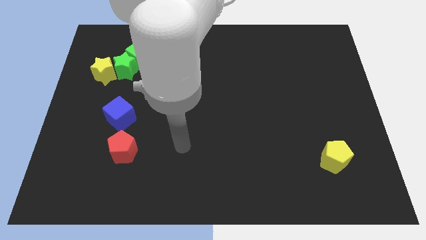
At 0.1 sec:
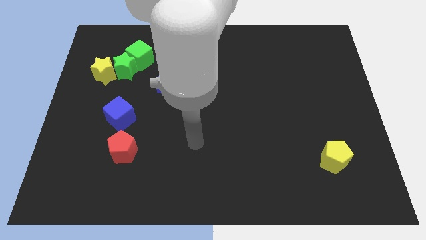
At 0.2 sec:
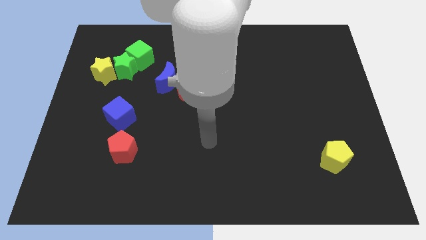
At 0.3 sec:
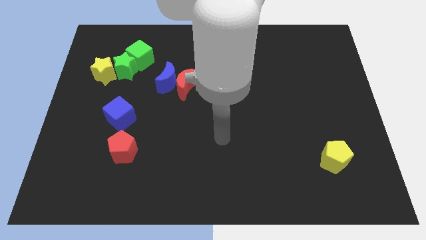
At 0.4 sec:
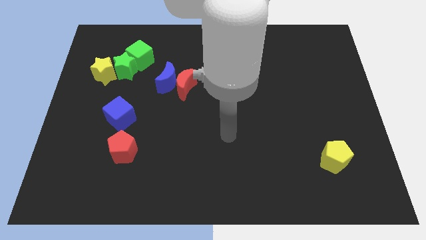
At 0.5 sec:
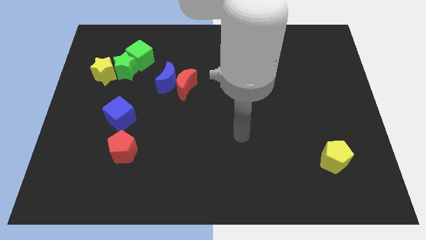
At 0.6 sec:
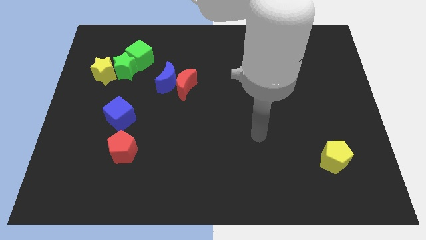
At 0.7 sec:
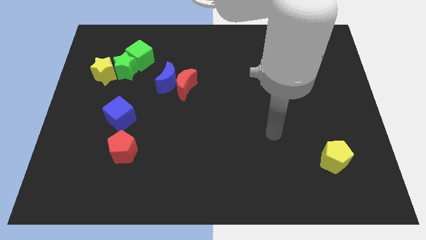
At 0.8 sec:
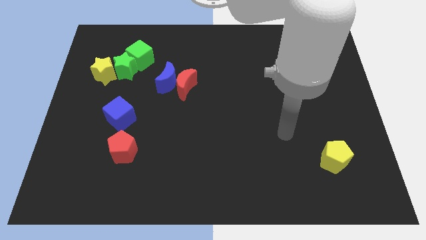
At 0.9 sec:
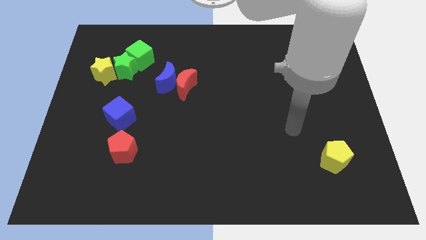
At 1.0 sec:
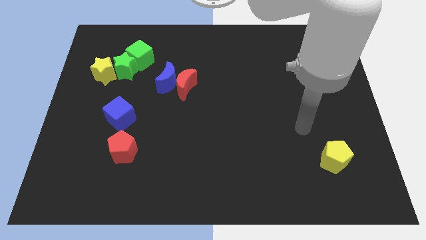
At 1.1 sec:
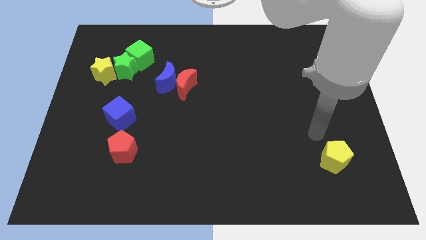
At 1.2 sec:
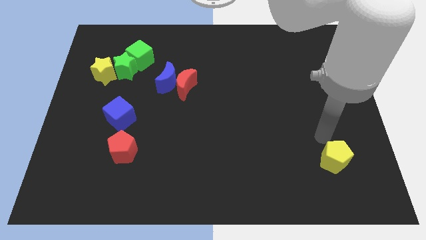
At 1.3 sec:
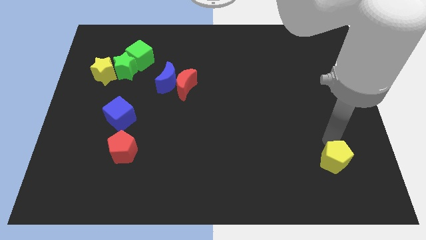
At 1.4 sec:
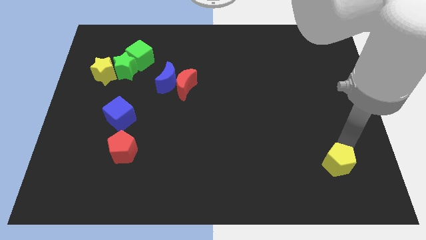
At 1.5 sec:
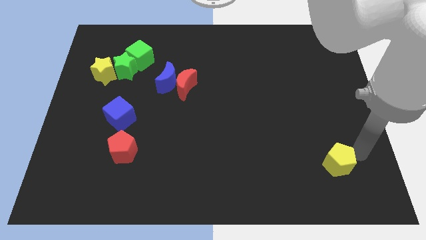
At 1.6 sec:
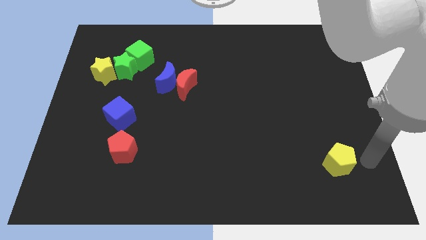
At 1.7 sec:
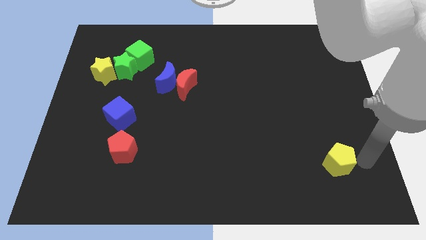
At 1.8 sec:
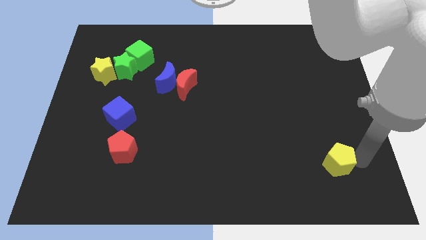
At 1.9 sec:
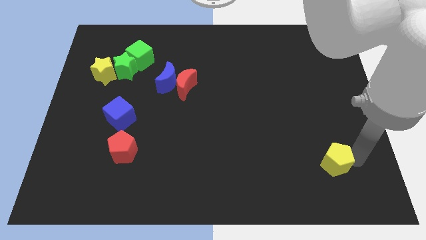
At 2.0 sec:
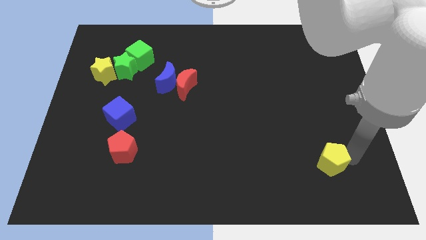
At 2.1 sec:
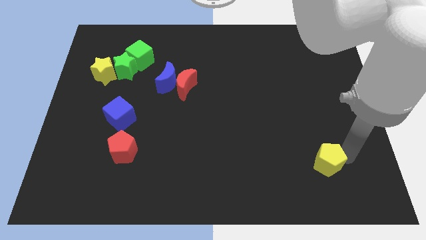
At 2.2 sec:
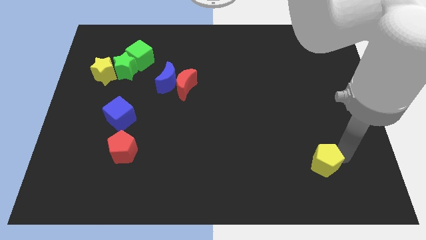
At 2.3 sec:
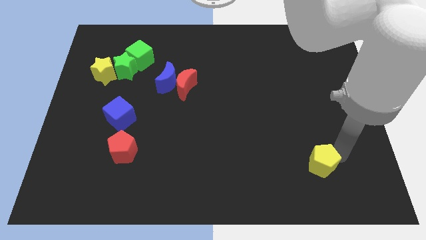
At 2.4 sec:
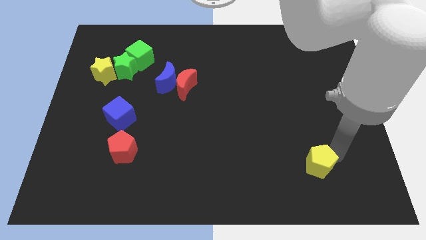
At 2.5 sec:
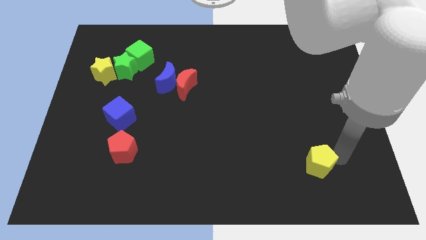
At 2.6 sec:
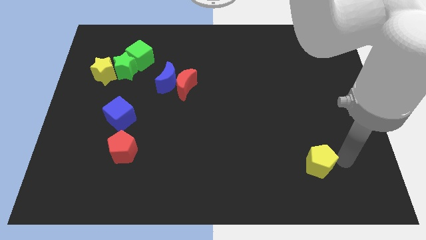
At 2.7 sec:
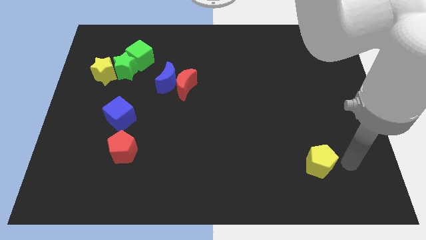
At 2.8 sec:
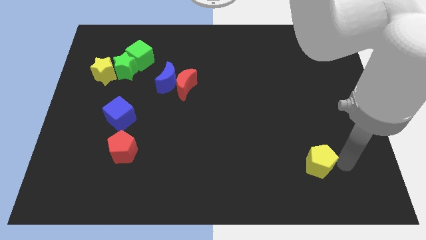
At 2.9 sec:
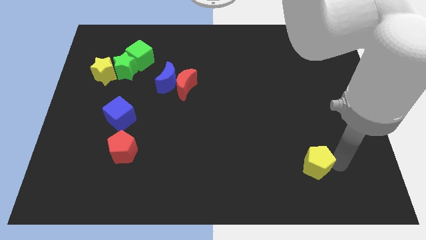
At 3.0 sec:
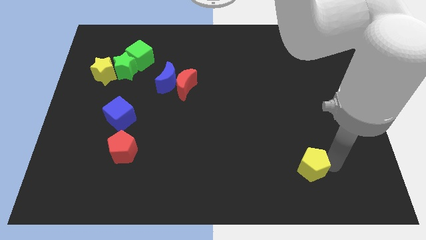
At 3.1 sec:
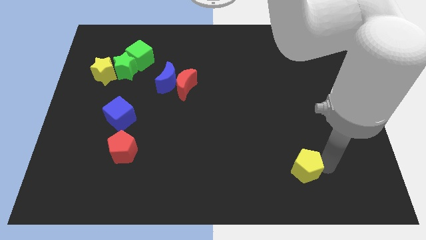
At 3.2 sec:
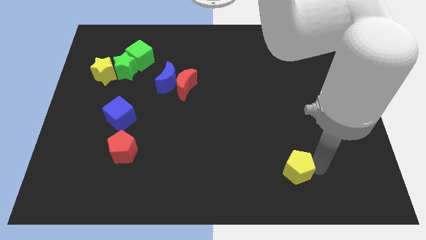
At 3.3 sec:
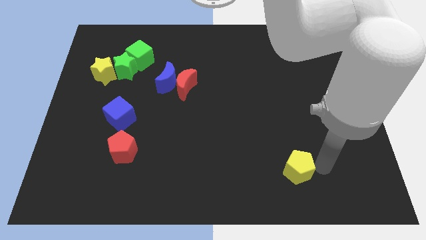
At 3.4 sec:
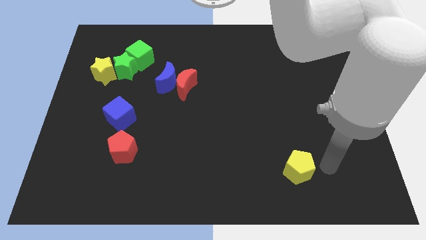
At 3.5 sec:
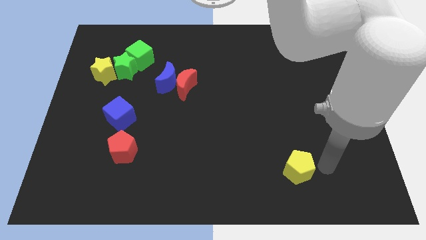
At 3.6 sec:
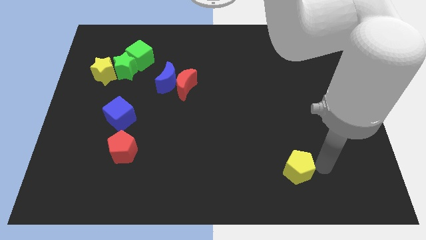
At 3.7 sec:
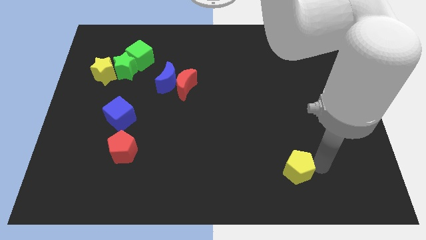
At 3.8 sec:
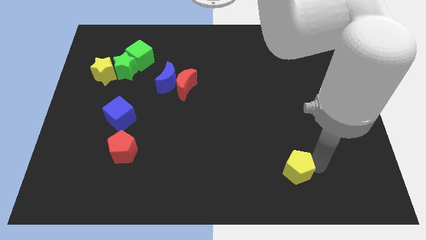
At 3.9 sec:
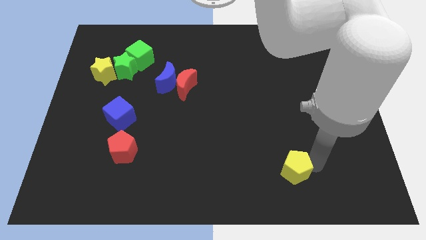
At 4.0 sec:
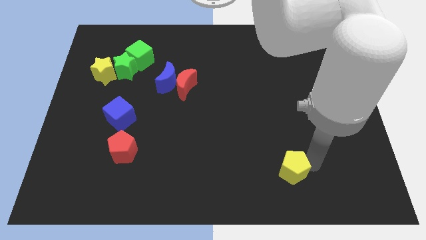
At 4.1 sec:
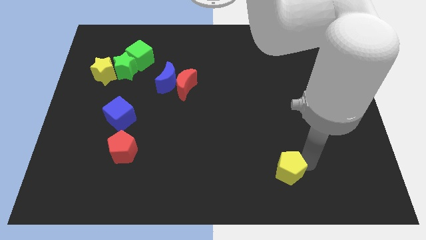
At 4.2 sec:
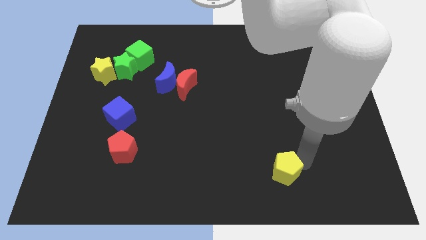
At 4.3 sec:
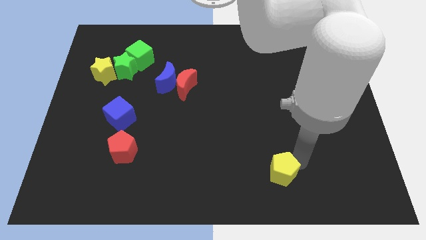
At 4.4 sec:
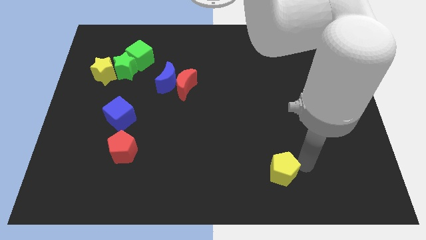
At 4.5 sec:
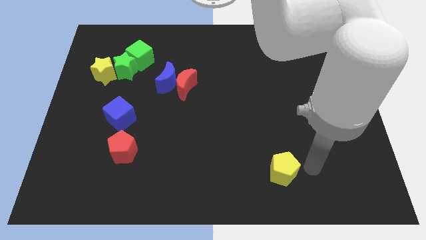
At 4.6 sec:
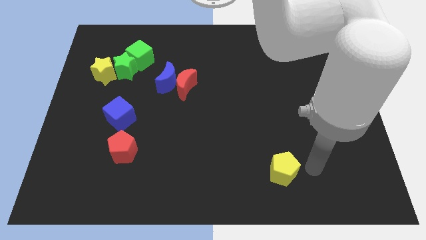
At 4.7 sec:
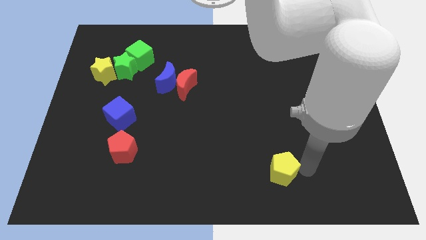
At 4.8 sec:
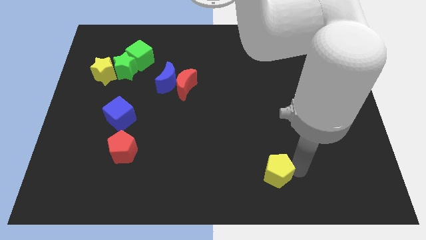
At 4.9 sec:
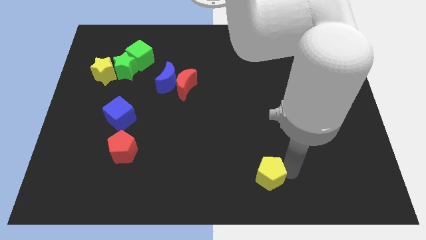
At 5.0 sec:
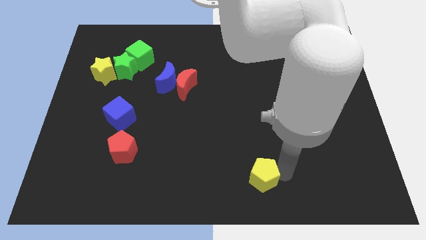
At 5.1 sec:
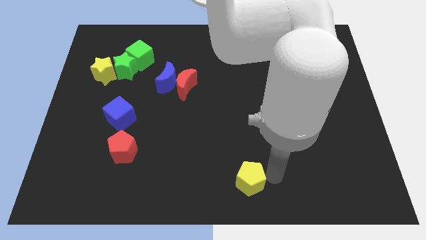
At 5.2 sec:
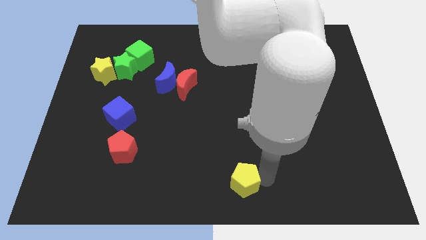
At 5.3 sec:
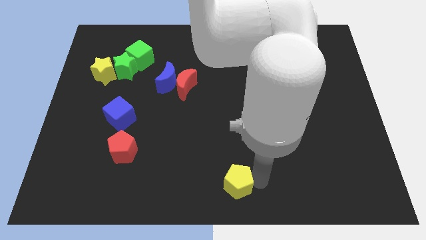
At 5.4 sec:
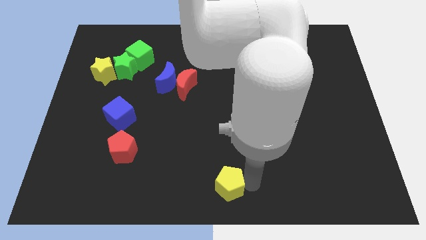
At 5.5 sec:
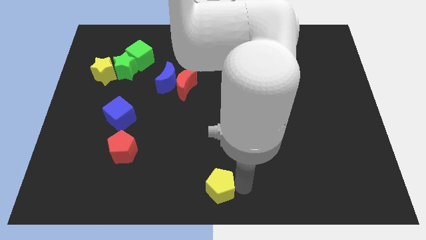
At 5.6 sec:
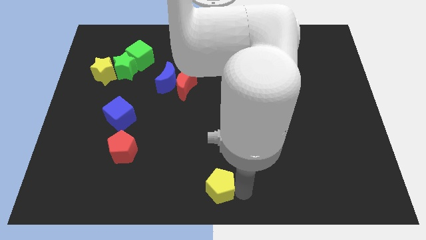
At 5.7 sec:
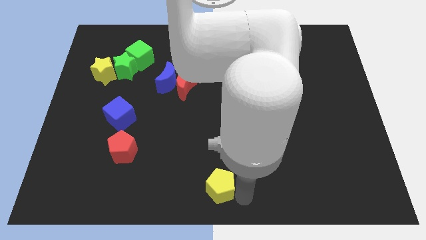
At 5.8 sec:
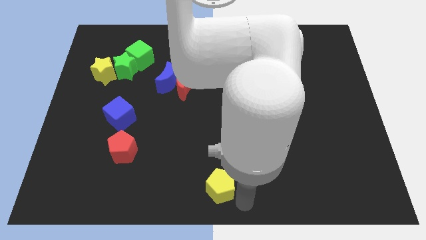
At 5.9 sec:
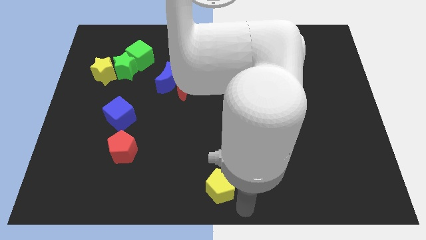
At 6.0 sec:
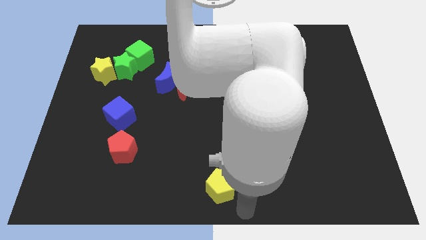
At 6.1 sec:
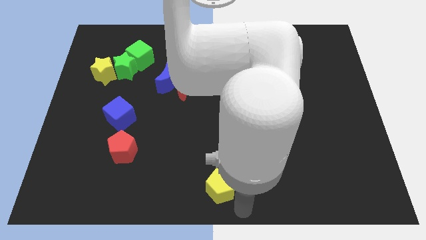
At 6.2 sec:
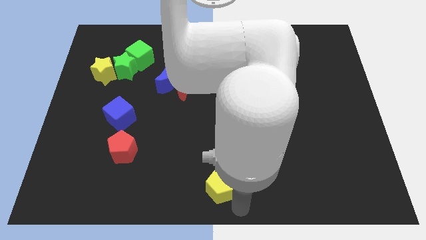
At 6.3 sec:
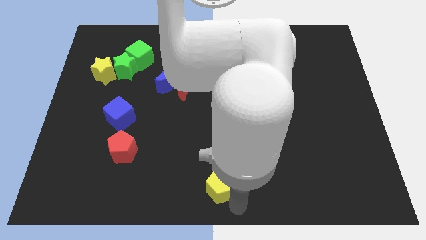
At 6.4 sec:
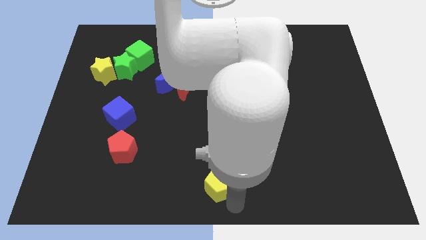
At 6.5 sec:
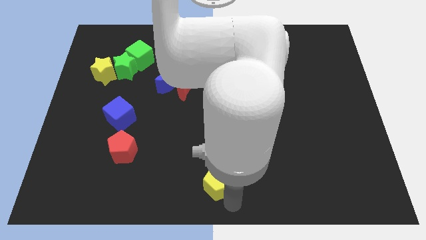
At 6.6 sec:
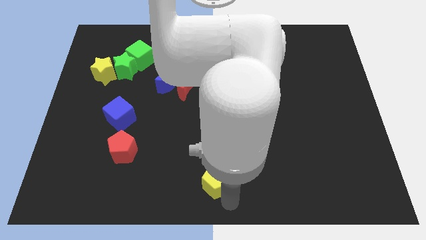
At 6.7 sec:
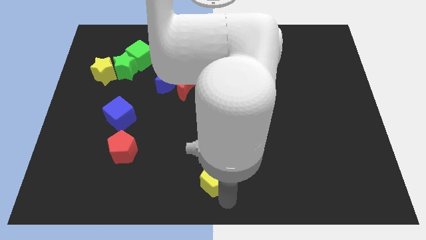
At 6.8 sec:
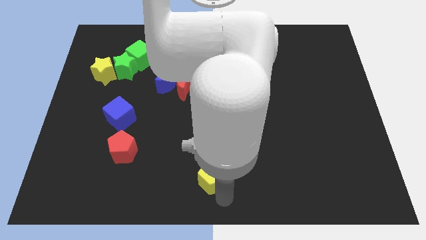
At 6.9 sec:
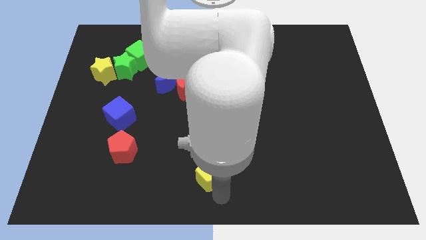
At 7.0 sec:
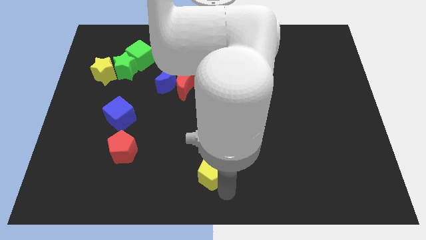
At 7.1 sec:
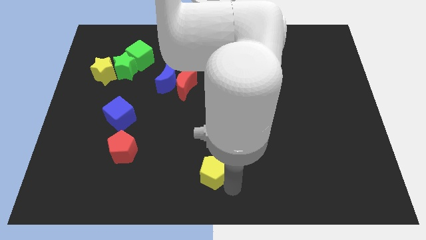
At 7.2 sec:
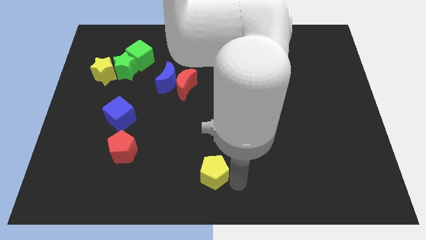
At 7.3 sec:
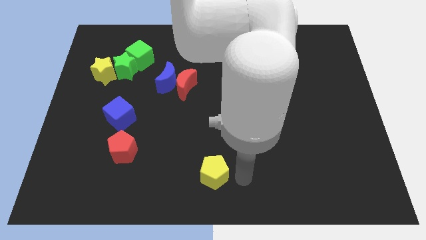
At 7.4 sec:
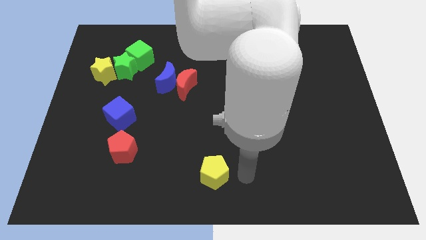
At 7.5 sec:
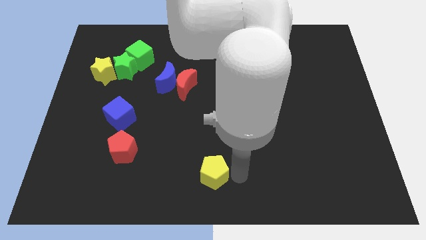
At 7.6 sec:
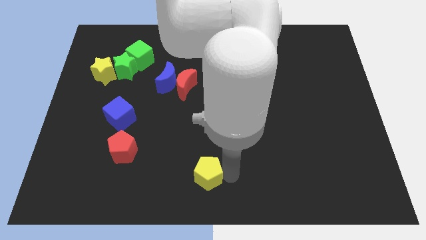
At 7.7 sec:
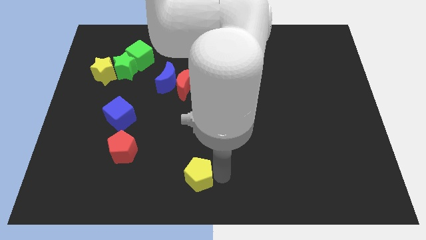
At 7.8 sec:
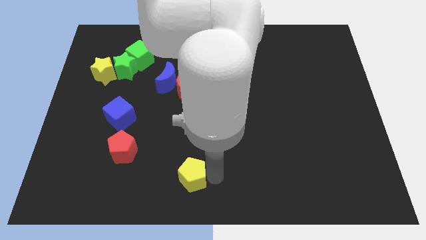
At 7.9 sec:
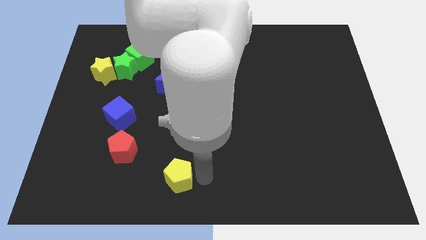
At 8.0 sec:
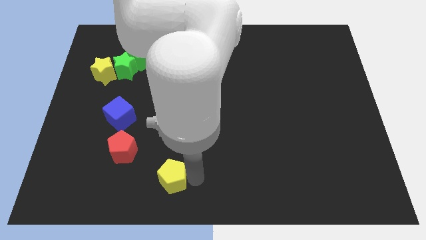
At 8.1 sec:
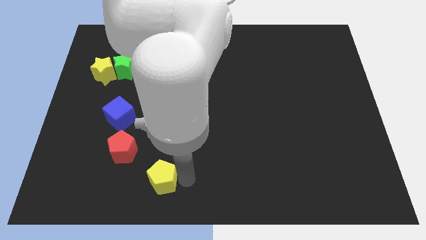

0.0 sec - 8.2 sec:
move the yellow pentagon to the bottom right of the red pentagon
